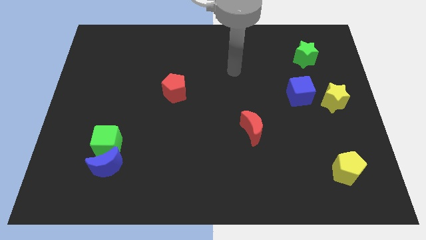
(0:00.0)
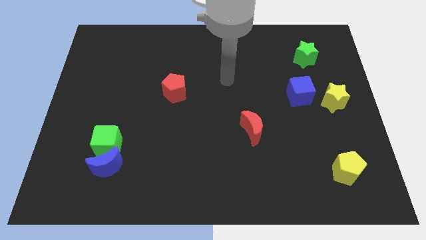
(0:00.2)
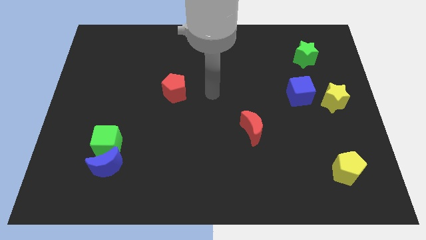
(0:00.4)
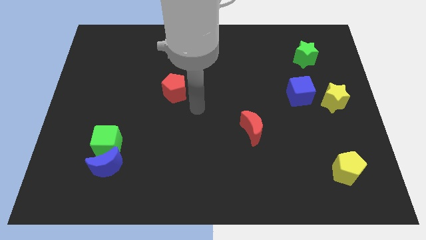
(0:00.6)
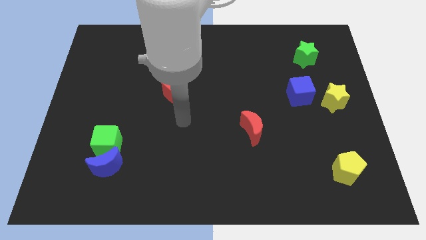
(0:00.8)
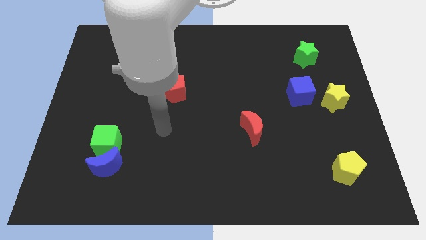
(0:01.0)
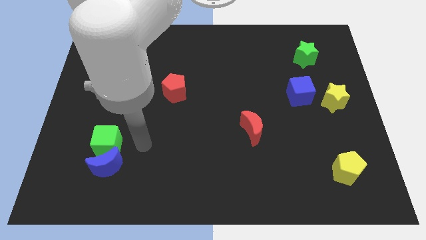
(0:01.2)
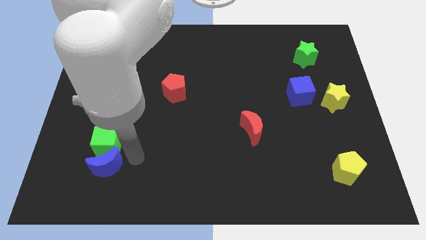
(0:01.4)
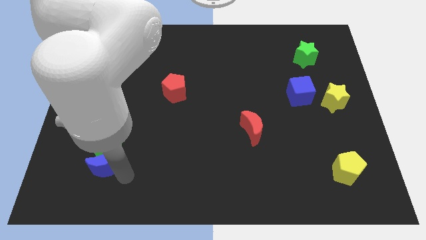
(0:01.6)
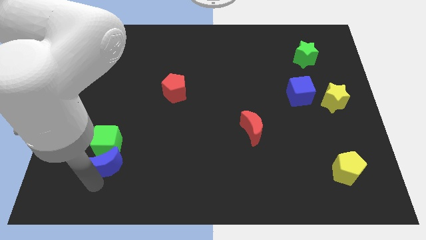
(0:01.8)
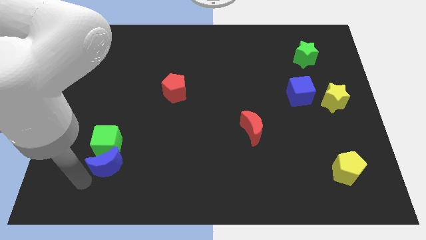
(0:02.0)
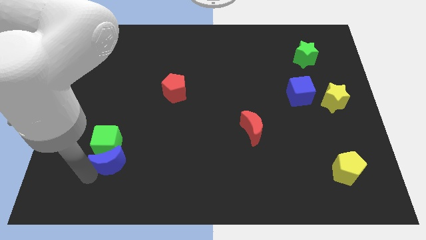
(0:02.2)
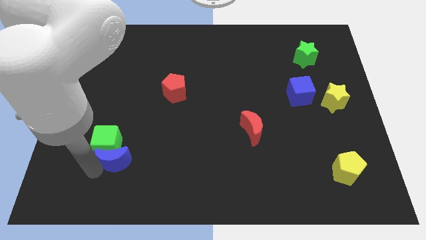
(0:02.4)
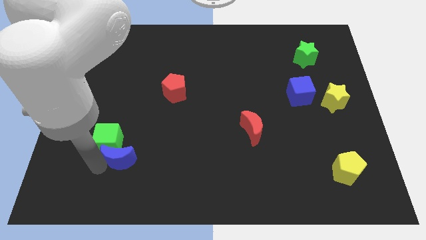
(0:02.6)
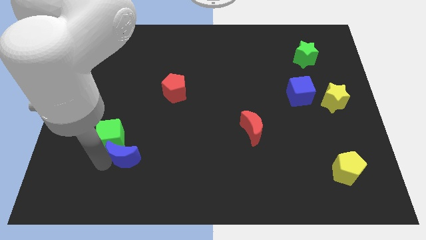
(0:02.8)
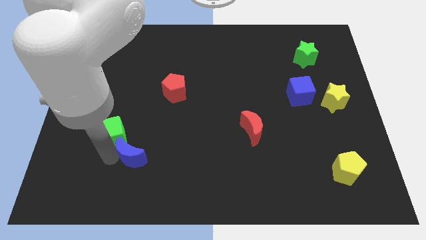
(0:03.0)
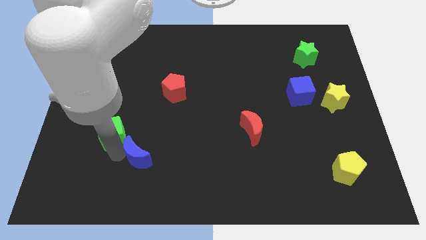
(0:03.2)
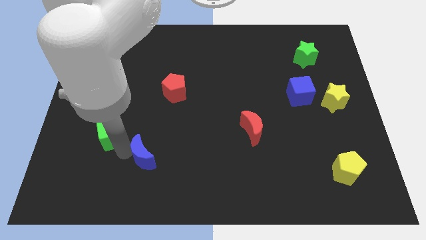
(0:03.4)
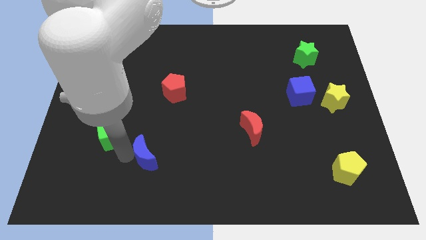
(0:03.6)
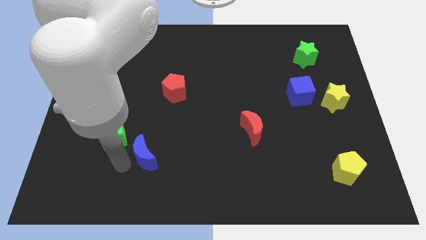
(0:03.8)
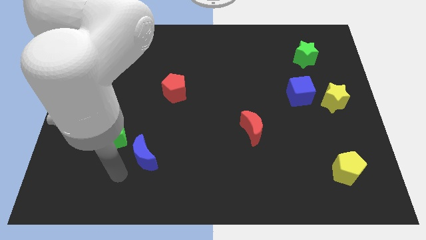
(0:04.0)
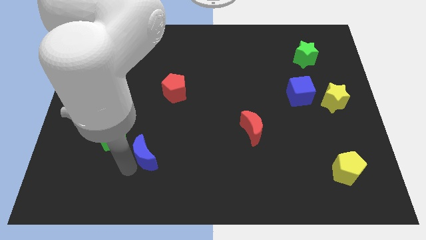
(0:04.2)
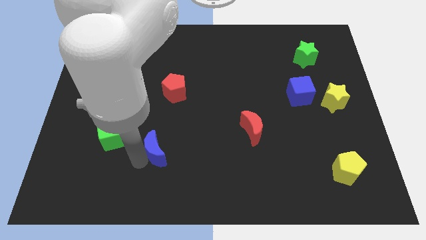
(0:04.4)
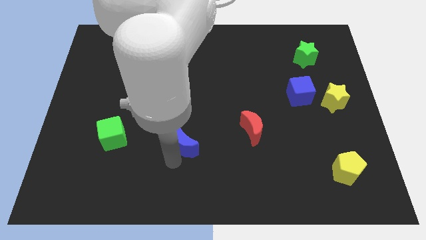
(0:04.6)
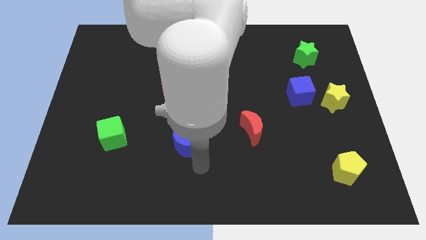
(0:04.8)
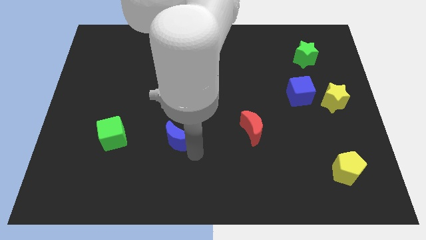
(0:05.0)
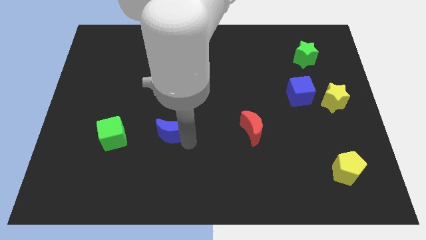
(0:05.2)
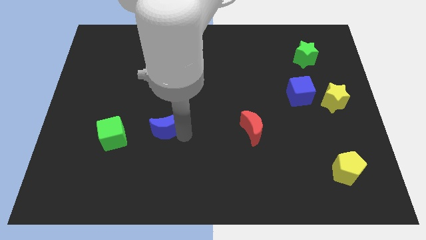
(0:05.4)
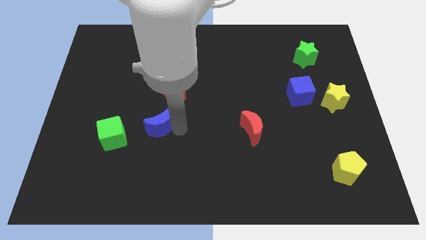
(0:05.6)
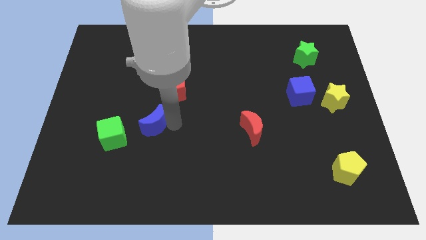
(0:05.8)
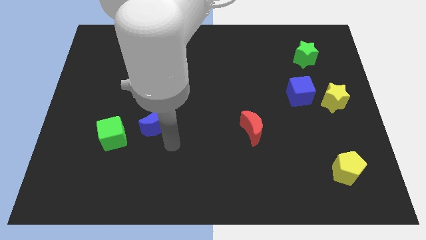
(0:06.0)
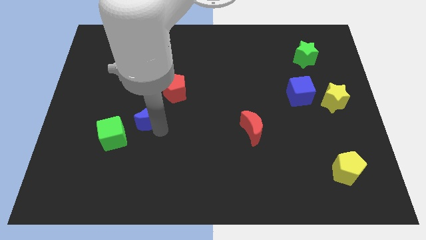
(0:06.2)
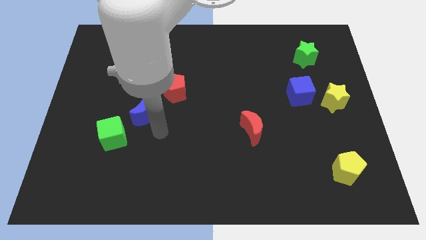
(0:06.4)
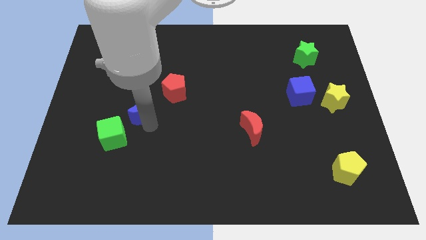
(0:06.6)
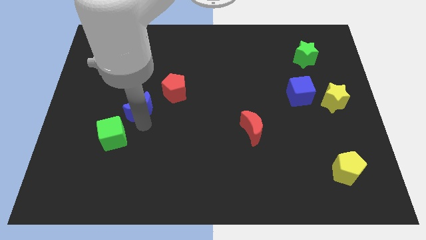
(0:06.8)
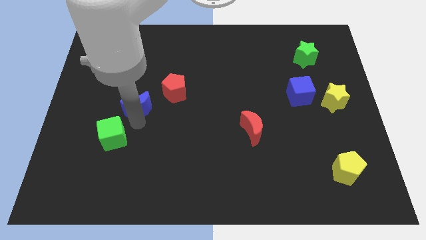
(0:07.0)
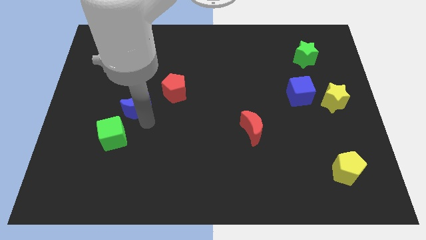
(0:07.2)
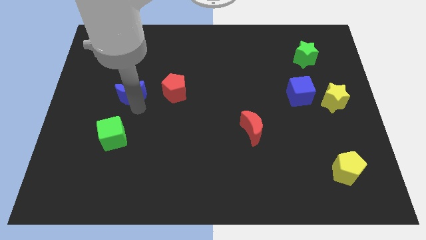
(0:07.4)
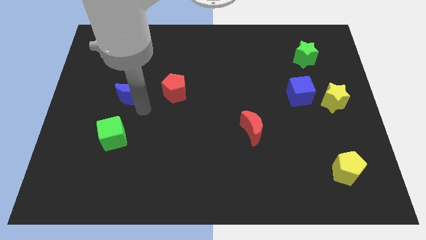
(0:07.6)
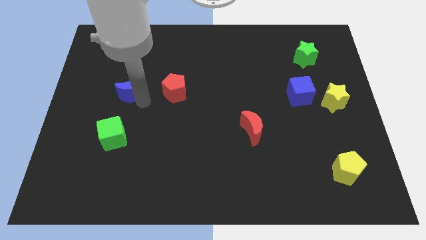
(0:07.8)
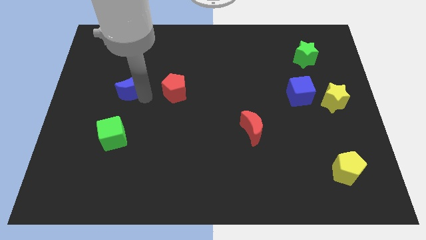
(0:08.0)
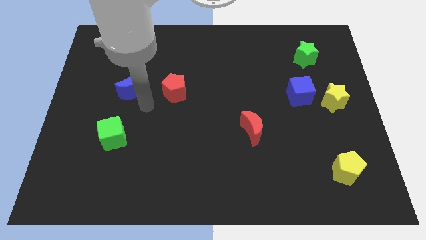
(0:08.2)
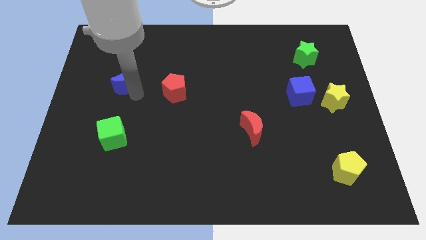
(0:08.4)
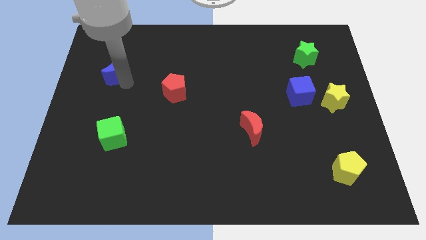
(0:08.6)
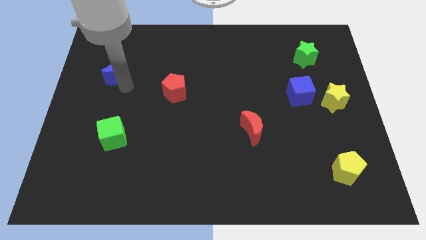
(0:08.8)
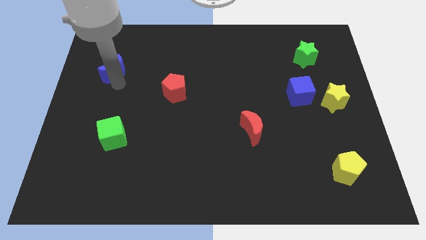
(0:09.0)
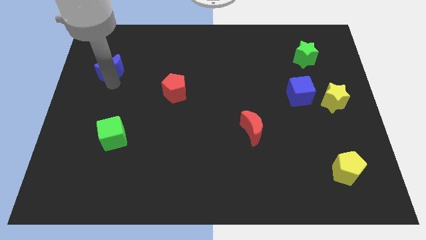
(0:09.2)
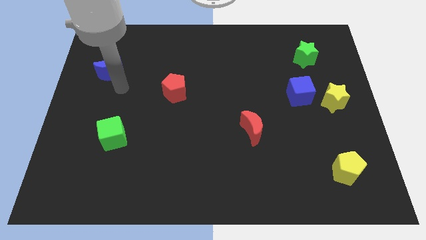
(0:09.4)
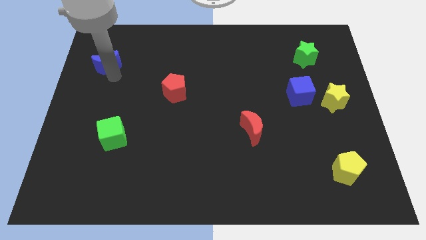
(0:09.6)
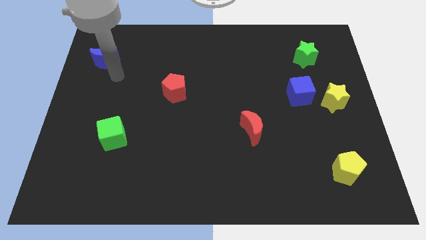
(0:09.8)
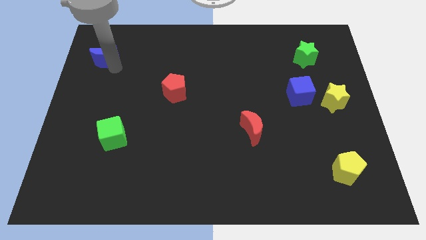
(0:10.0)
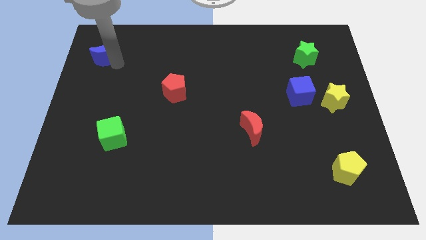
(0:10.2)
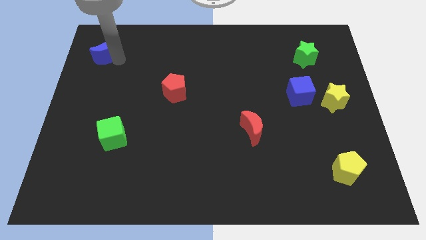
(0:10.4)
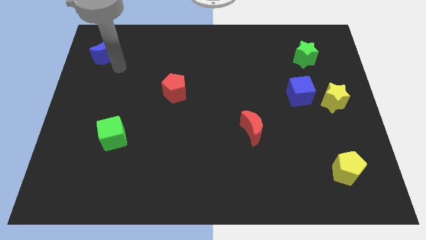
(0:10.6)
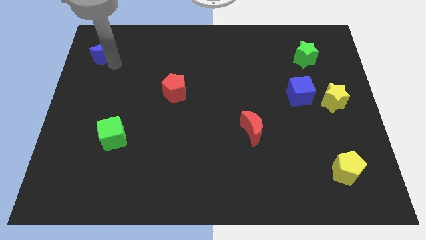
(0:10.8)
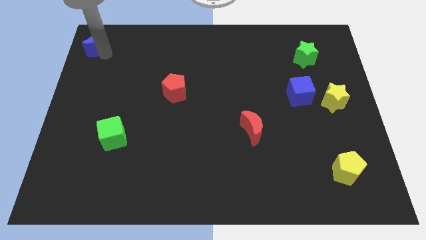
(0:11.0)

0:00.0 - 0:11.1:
put the blue moon to the top left of the board

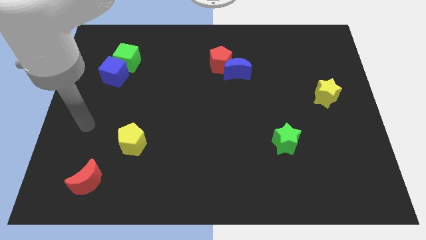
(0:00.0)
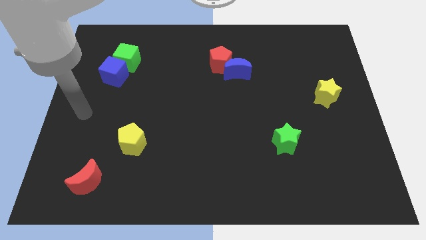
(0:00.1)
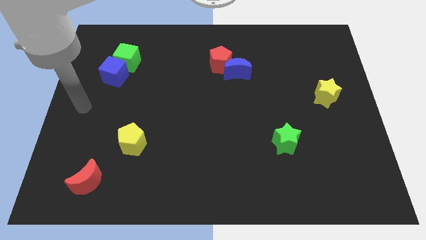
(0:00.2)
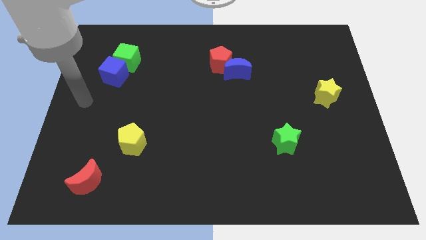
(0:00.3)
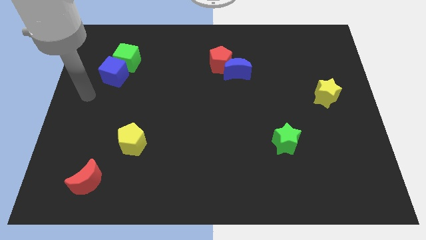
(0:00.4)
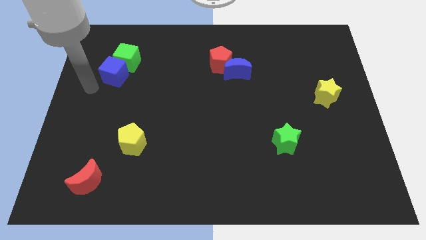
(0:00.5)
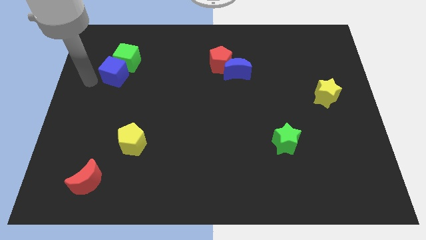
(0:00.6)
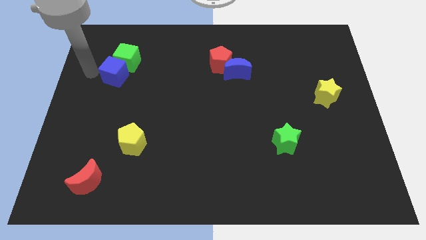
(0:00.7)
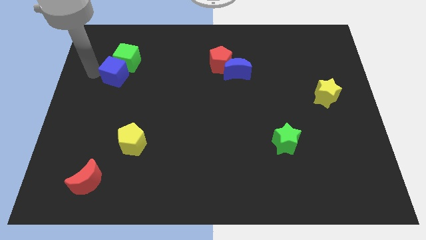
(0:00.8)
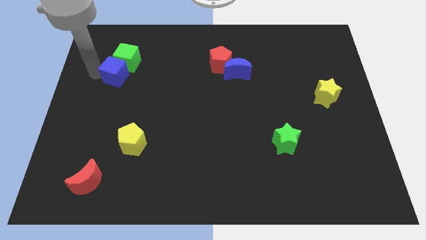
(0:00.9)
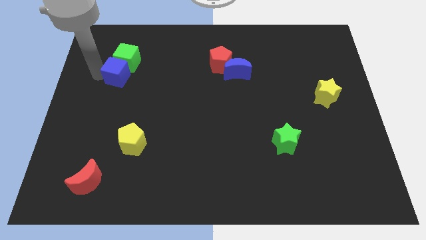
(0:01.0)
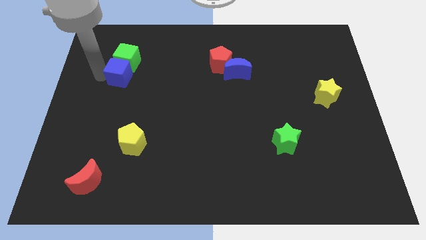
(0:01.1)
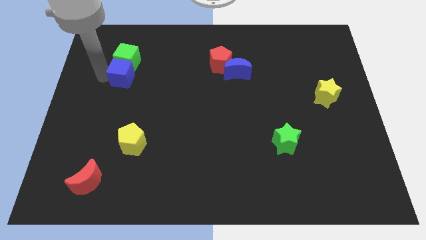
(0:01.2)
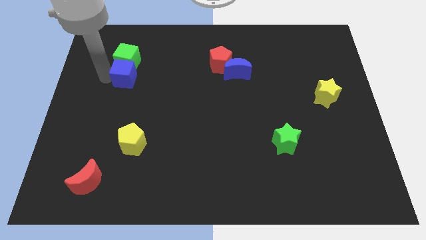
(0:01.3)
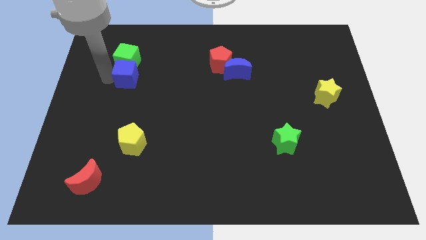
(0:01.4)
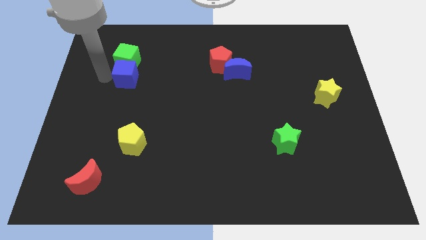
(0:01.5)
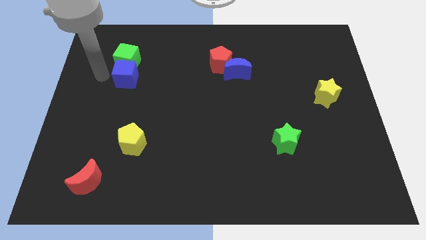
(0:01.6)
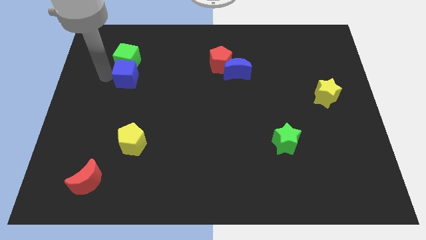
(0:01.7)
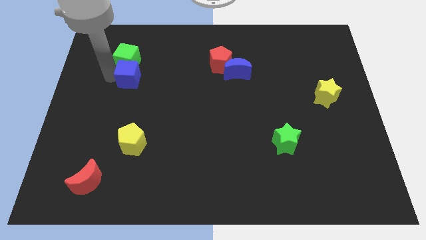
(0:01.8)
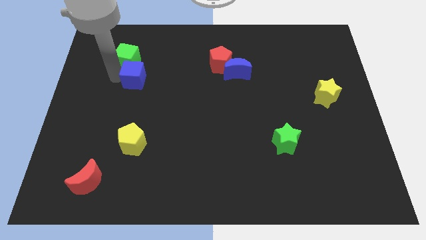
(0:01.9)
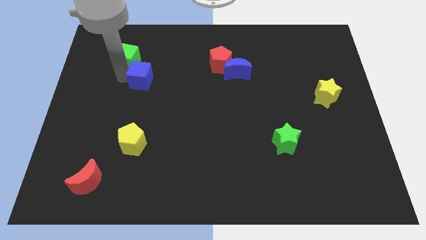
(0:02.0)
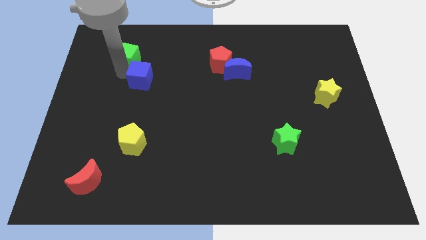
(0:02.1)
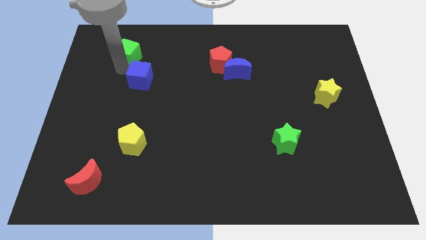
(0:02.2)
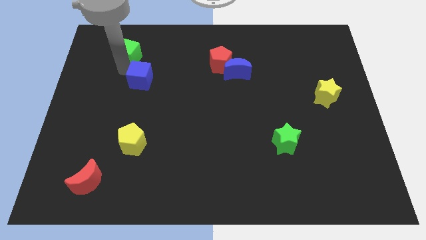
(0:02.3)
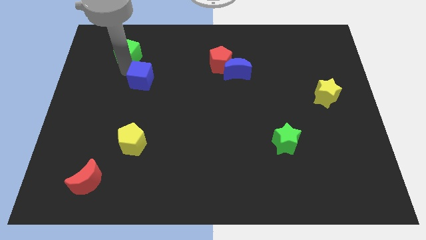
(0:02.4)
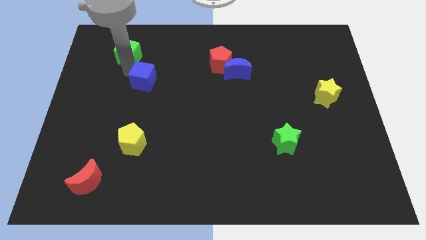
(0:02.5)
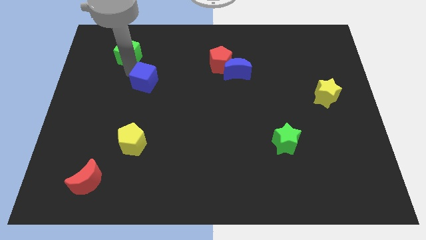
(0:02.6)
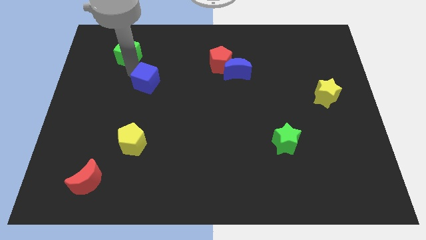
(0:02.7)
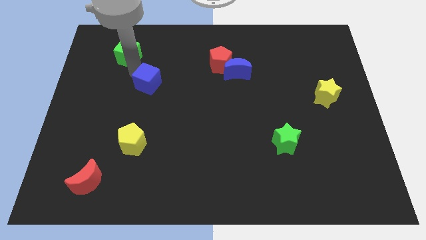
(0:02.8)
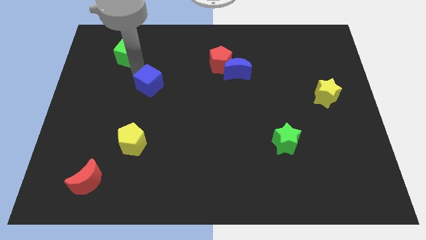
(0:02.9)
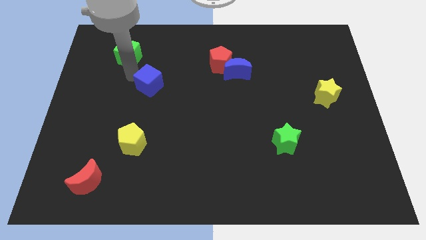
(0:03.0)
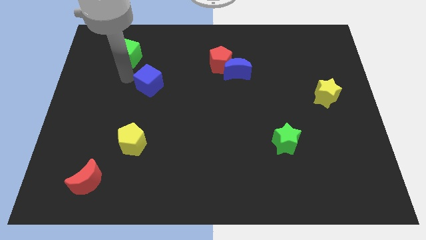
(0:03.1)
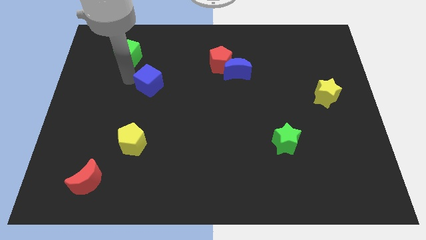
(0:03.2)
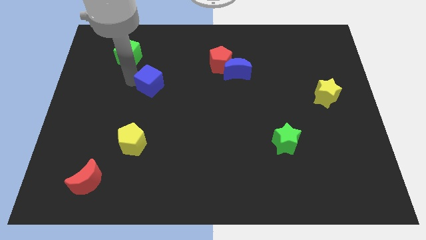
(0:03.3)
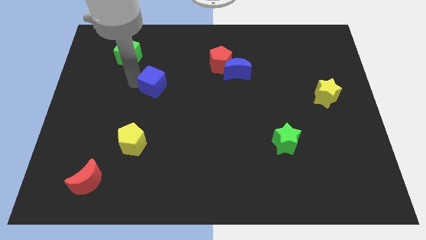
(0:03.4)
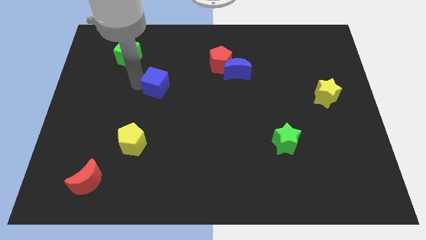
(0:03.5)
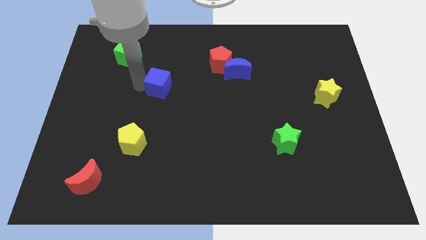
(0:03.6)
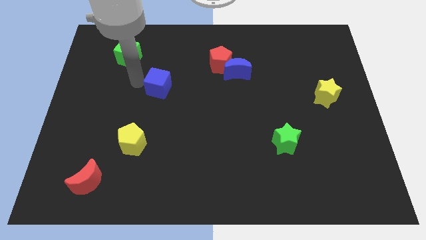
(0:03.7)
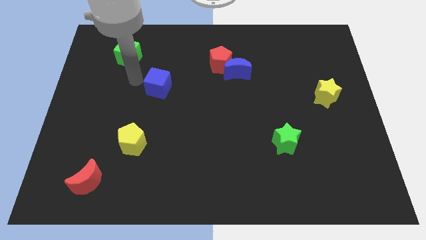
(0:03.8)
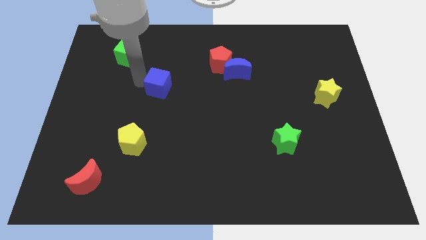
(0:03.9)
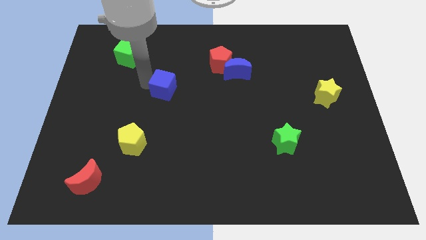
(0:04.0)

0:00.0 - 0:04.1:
push the blue cube to the center of the board
